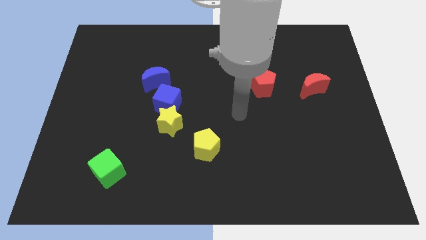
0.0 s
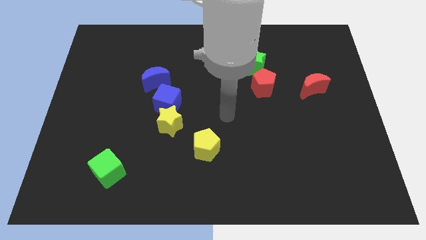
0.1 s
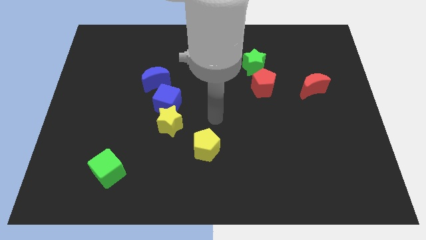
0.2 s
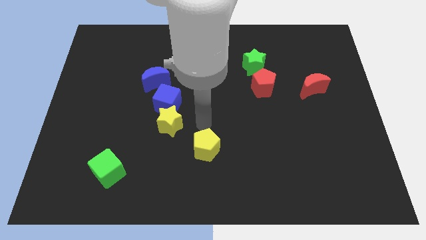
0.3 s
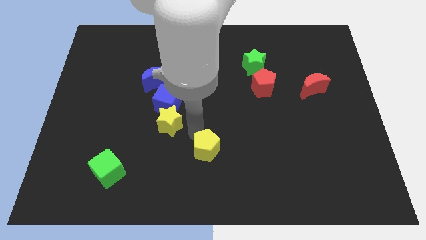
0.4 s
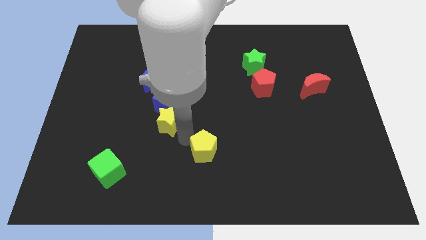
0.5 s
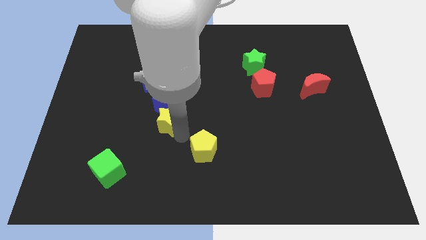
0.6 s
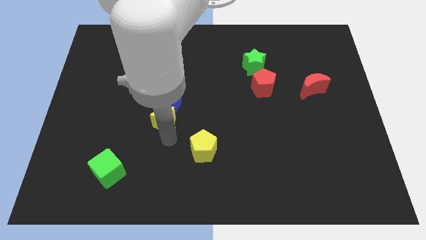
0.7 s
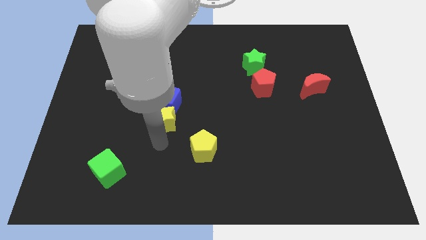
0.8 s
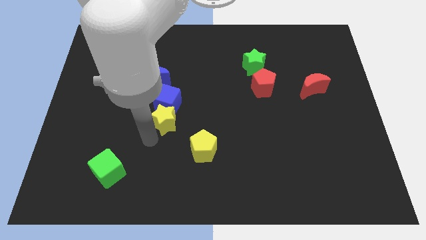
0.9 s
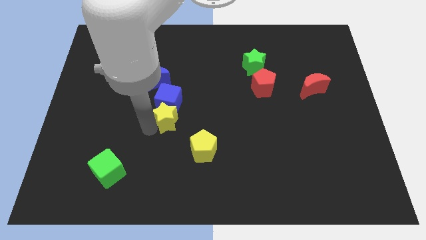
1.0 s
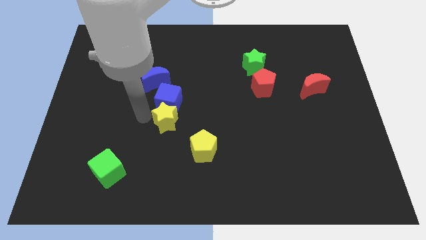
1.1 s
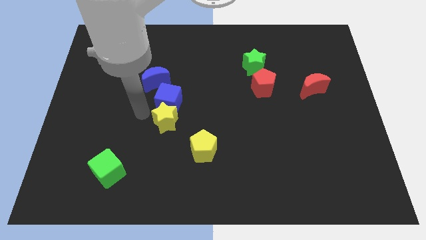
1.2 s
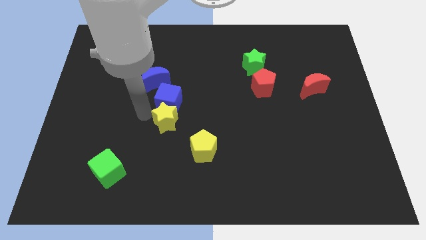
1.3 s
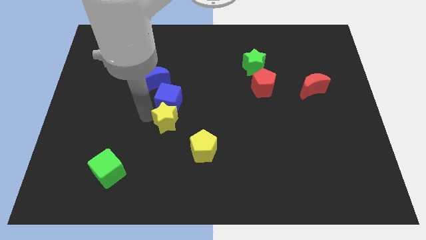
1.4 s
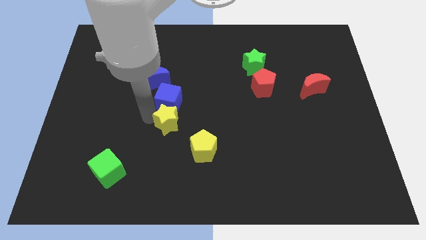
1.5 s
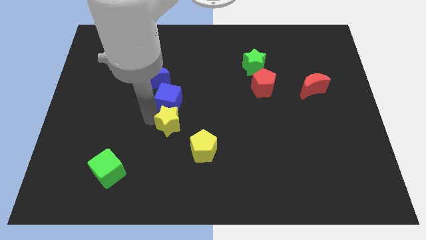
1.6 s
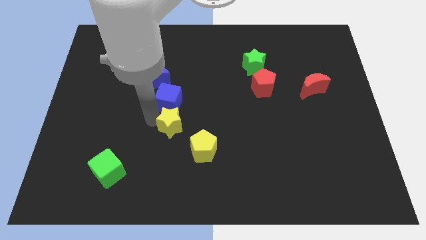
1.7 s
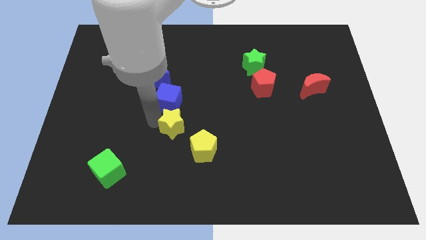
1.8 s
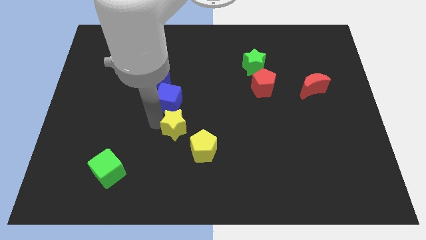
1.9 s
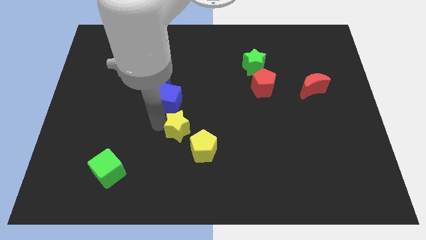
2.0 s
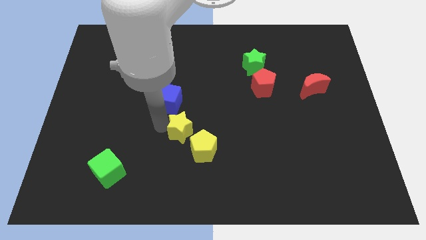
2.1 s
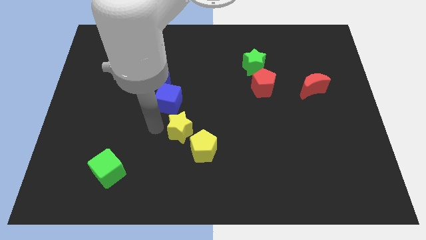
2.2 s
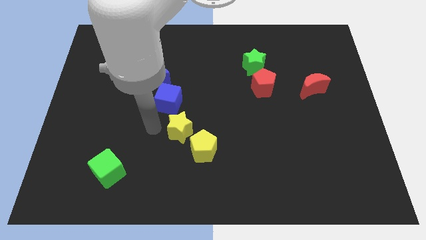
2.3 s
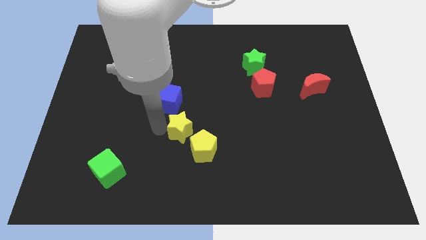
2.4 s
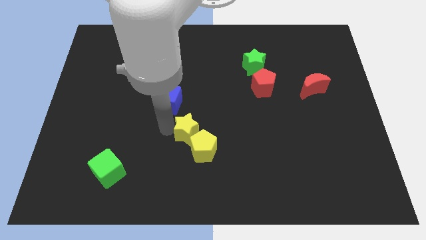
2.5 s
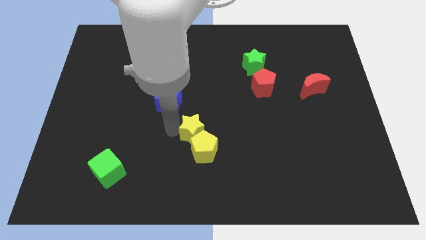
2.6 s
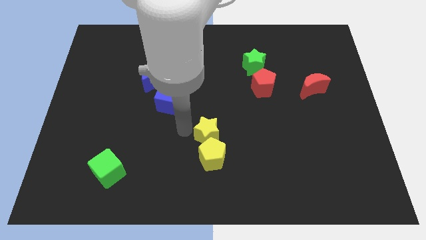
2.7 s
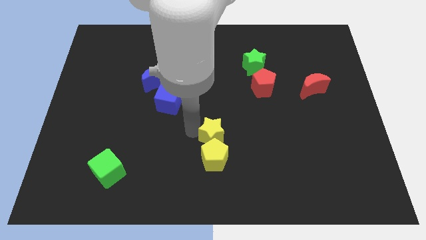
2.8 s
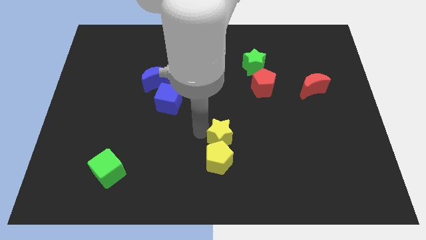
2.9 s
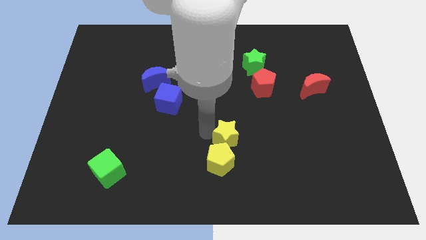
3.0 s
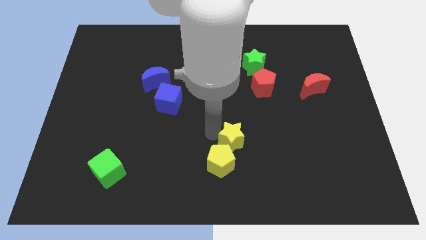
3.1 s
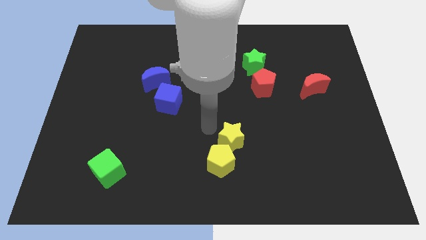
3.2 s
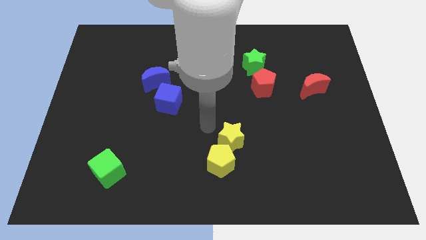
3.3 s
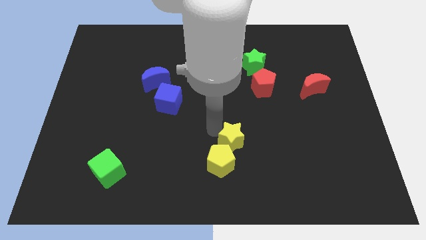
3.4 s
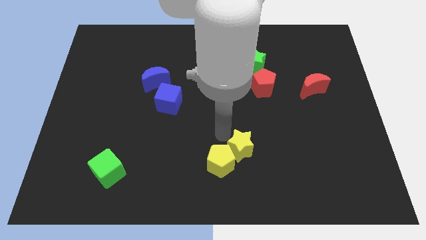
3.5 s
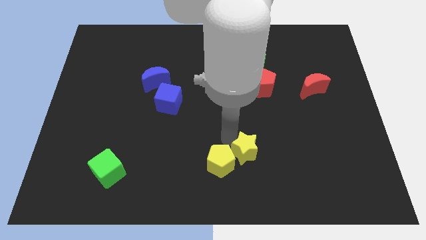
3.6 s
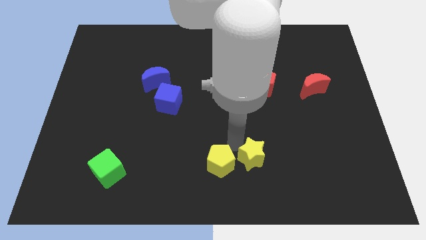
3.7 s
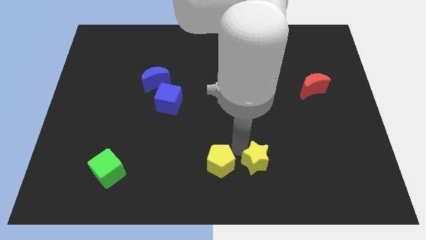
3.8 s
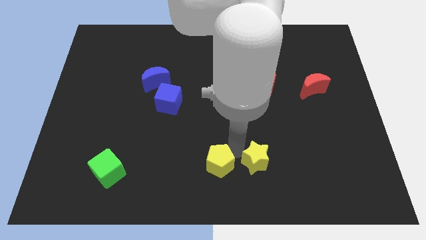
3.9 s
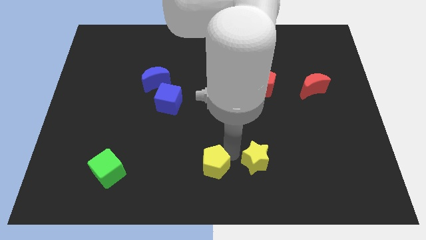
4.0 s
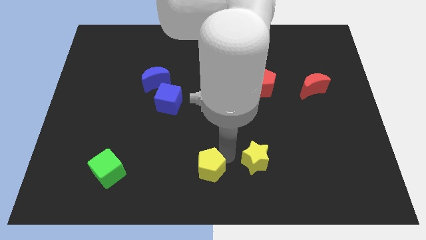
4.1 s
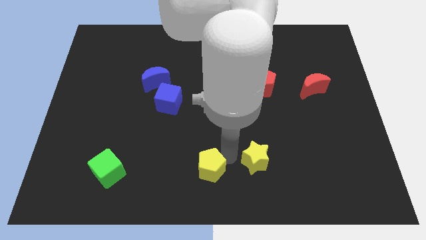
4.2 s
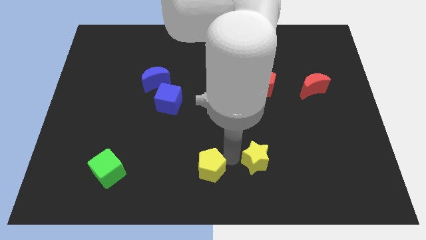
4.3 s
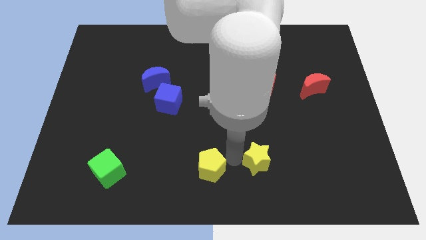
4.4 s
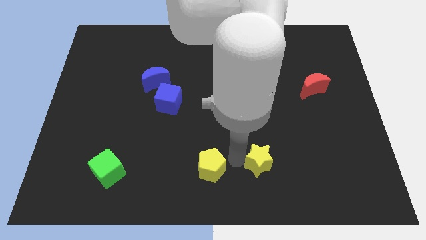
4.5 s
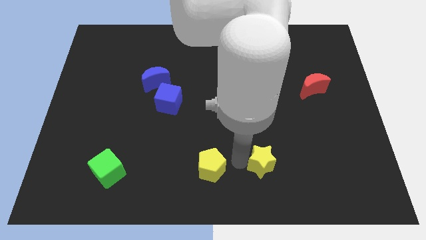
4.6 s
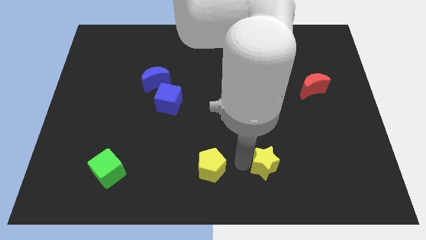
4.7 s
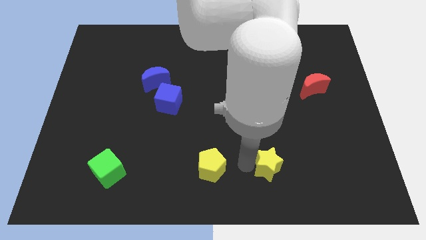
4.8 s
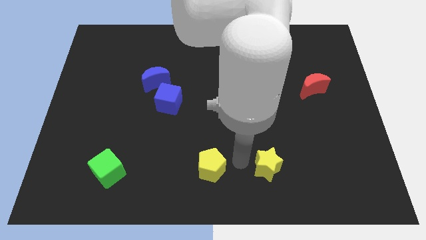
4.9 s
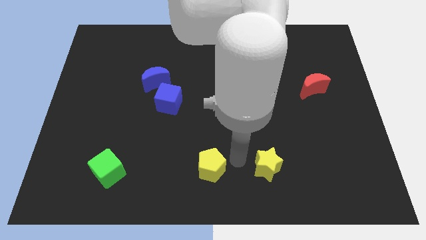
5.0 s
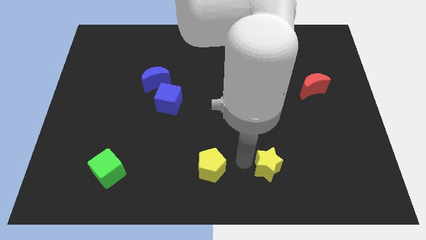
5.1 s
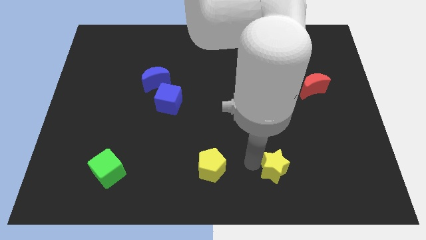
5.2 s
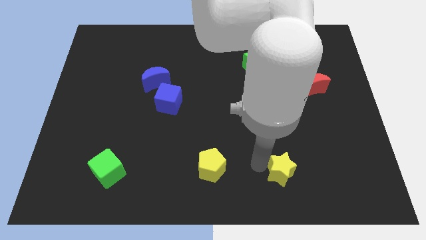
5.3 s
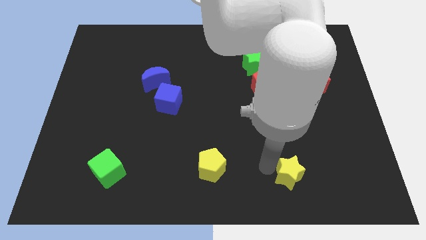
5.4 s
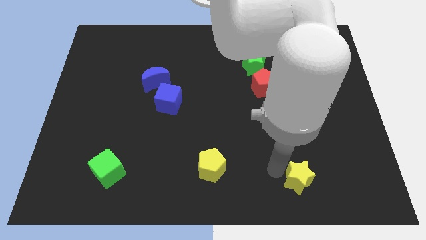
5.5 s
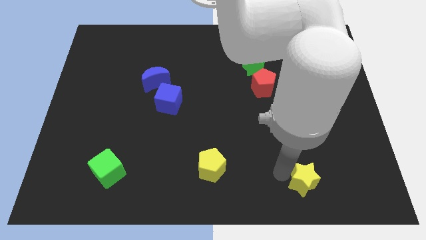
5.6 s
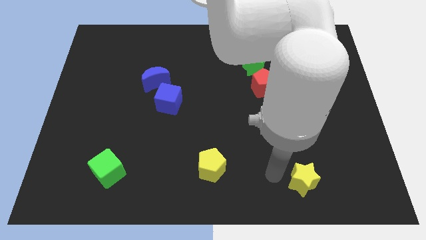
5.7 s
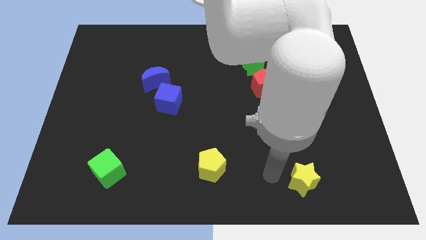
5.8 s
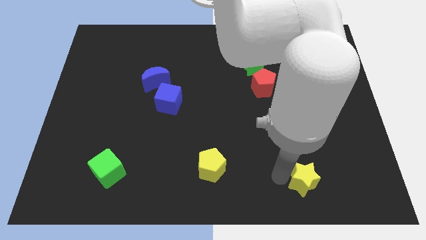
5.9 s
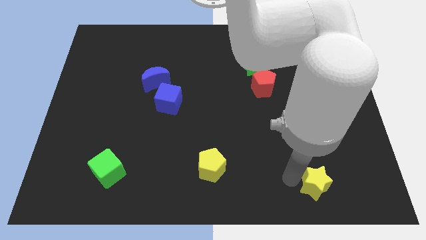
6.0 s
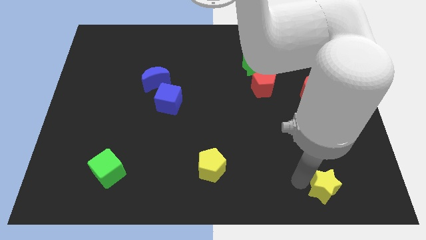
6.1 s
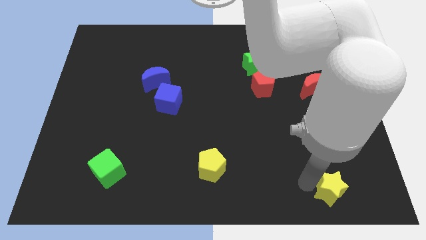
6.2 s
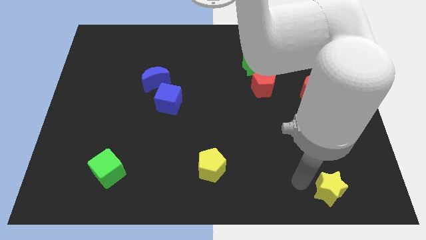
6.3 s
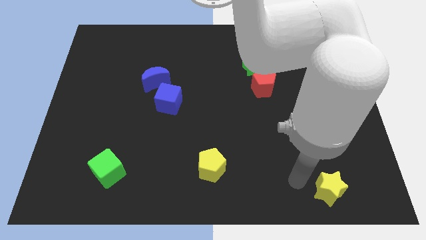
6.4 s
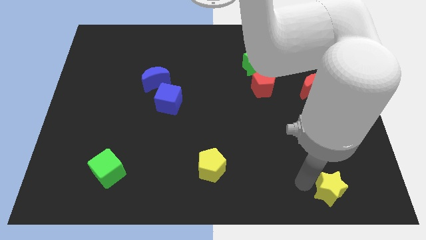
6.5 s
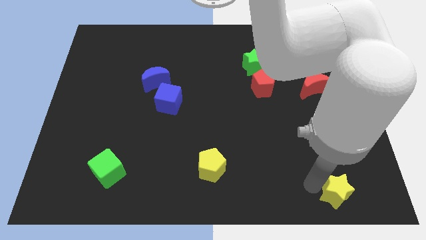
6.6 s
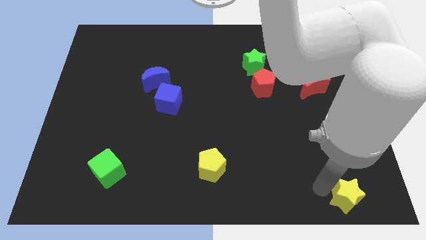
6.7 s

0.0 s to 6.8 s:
push the yellow star to the bottom right corner
